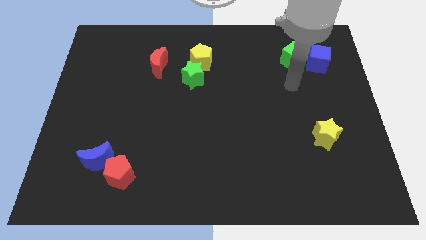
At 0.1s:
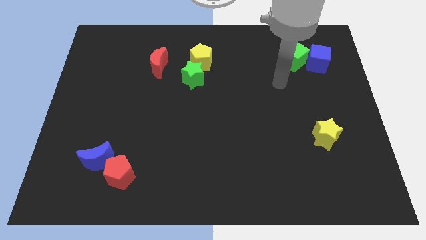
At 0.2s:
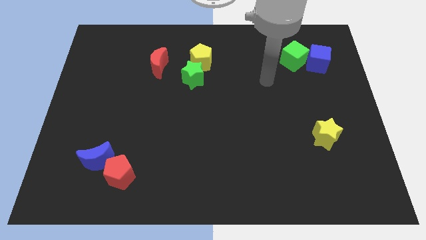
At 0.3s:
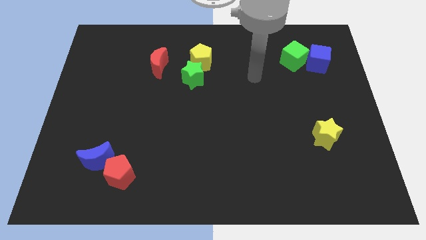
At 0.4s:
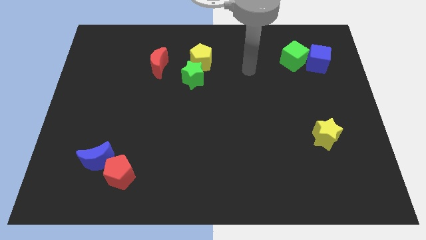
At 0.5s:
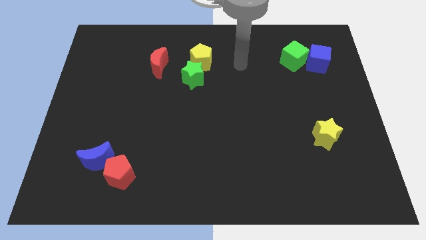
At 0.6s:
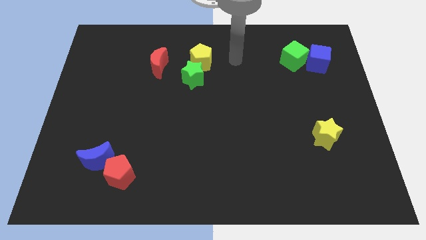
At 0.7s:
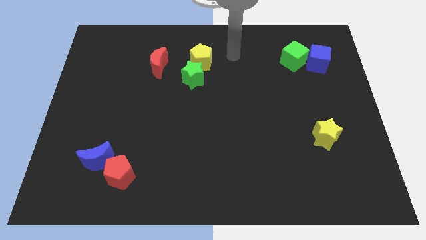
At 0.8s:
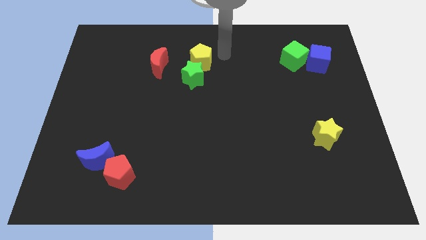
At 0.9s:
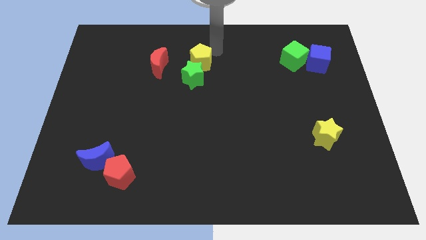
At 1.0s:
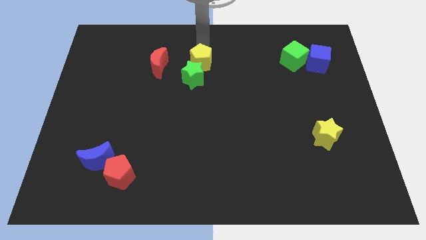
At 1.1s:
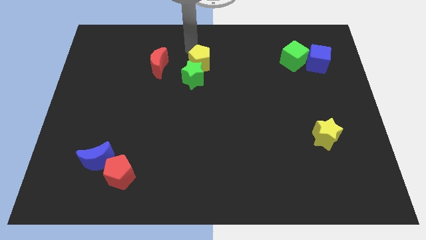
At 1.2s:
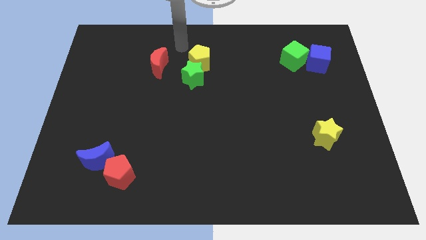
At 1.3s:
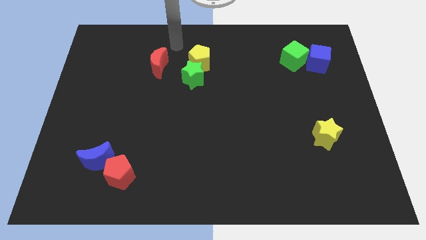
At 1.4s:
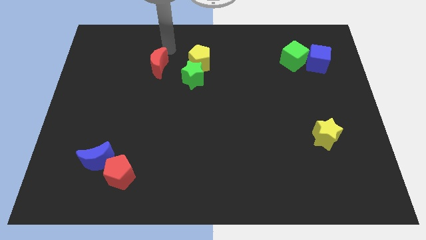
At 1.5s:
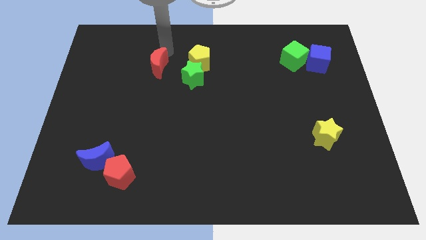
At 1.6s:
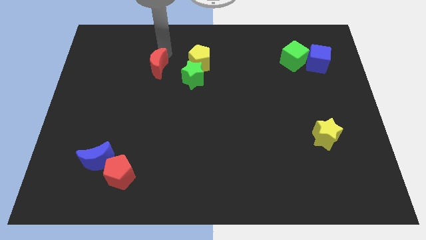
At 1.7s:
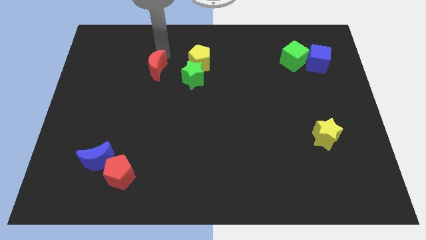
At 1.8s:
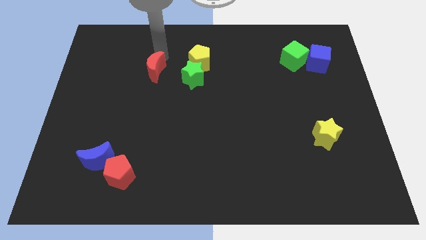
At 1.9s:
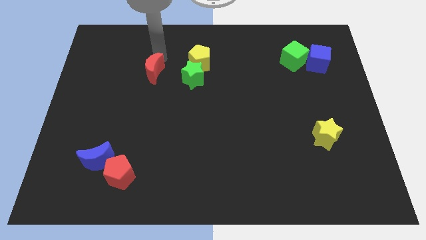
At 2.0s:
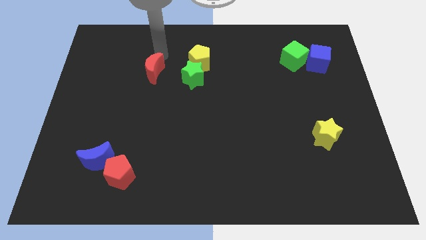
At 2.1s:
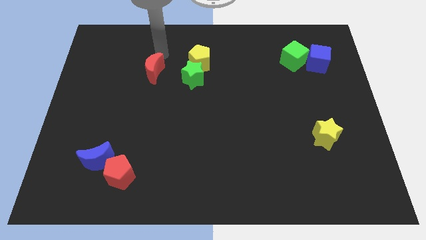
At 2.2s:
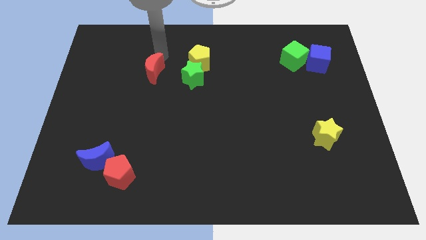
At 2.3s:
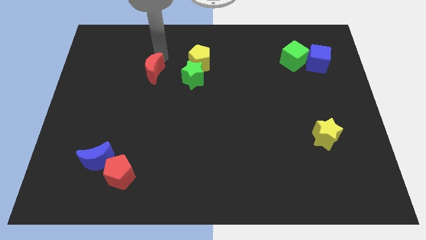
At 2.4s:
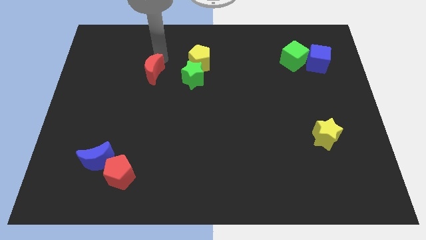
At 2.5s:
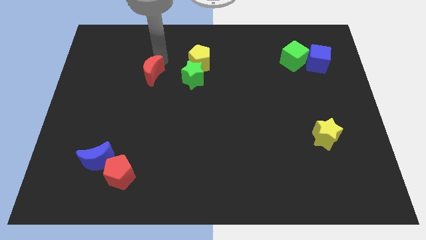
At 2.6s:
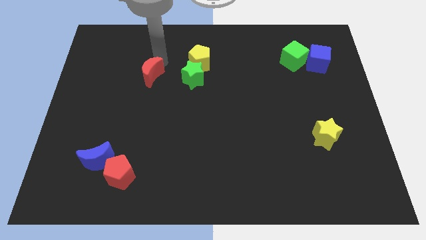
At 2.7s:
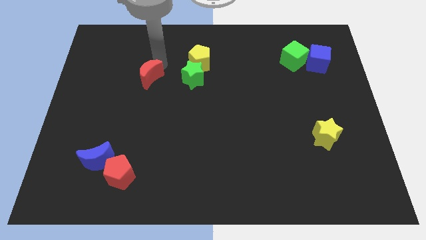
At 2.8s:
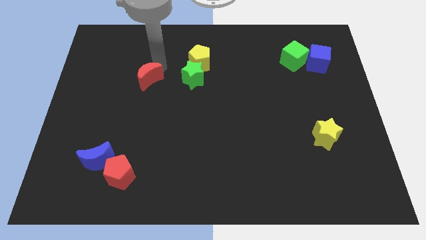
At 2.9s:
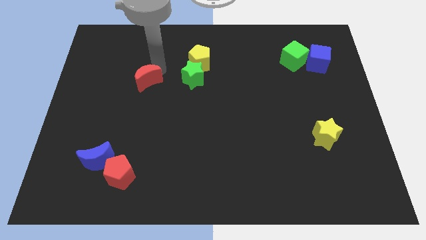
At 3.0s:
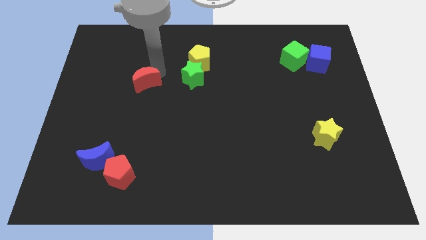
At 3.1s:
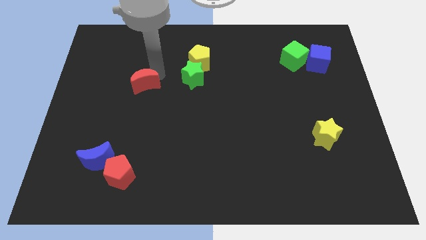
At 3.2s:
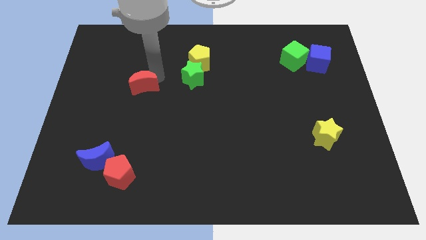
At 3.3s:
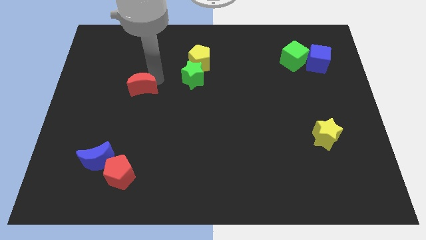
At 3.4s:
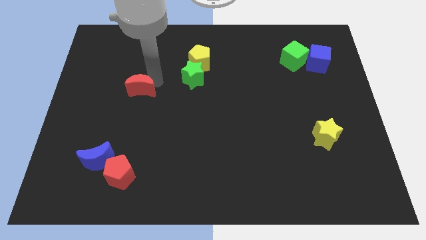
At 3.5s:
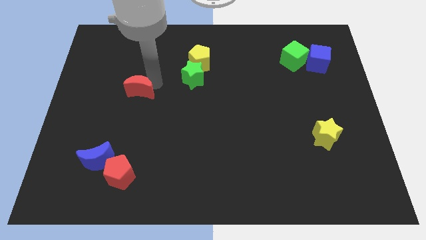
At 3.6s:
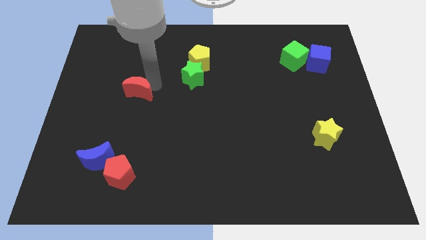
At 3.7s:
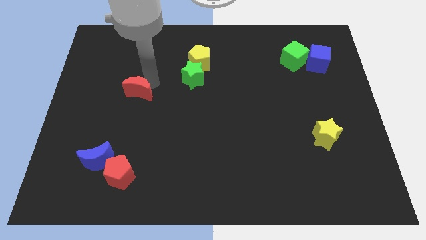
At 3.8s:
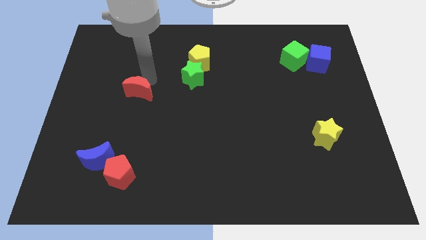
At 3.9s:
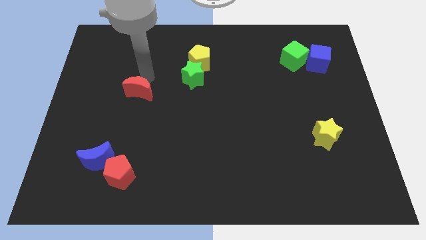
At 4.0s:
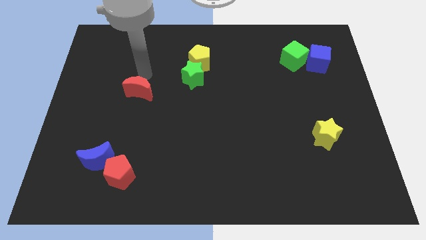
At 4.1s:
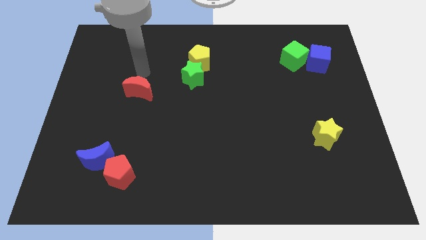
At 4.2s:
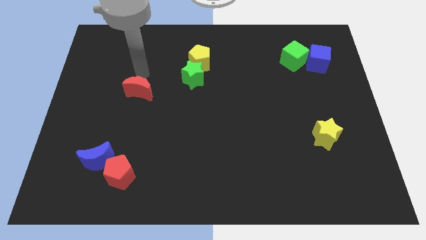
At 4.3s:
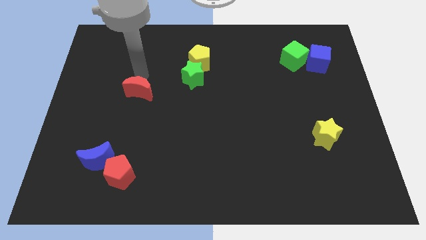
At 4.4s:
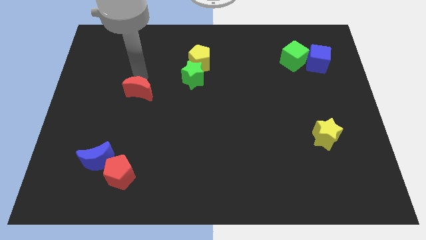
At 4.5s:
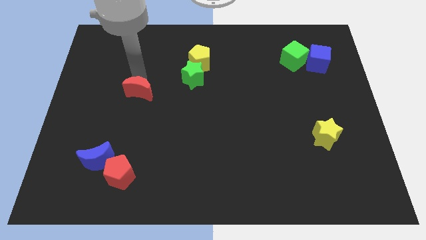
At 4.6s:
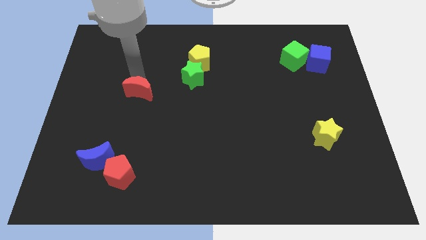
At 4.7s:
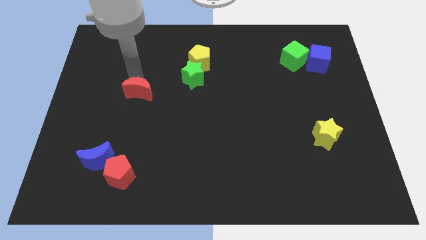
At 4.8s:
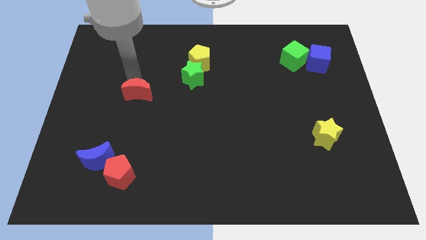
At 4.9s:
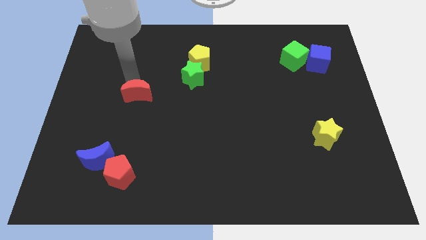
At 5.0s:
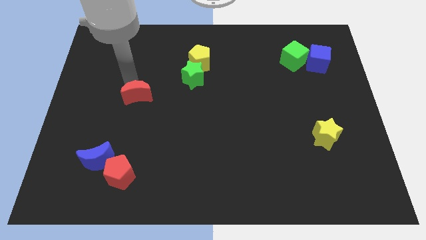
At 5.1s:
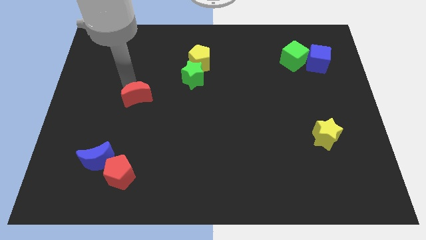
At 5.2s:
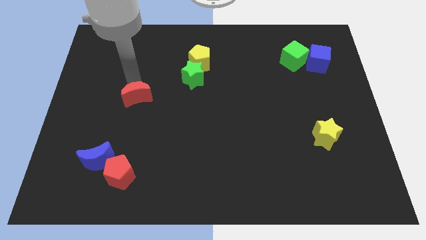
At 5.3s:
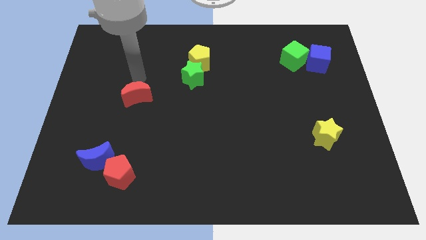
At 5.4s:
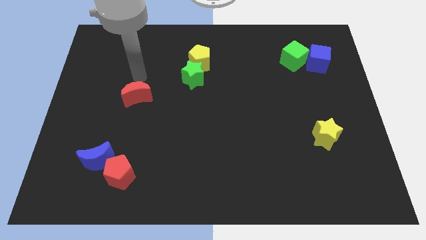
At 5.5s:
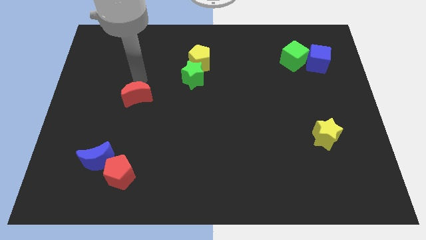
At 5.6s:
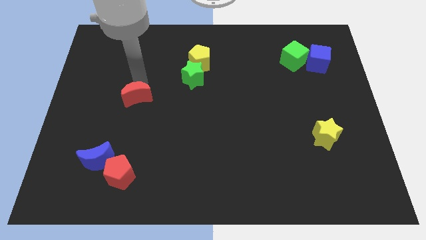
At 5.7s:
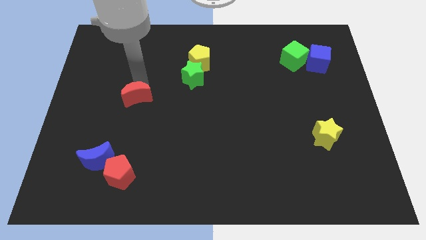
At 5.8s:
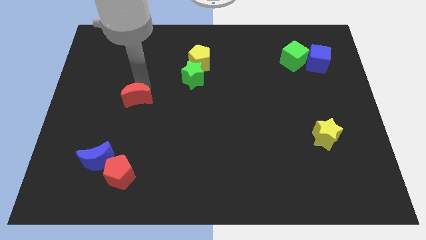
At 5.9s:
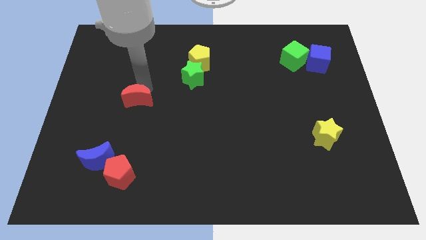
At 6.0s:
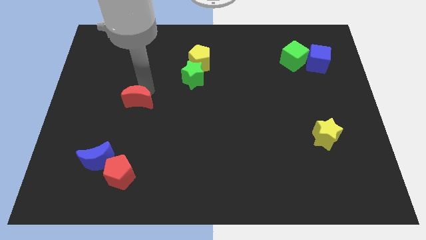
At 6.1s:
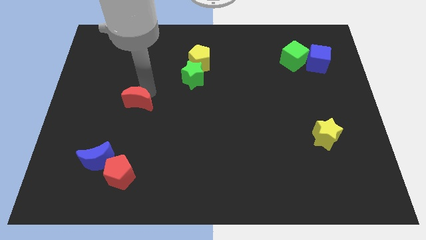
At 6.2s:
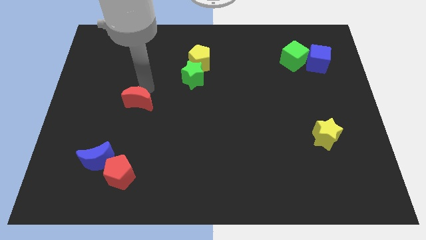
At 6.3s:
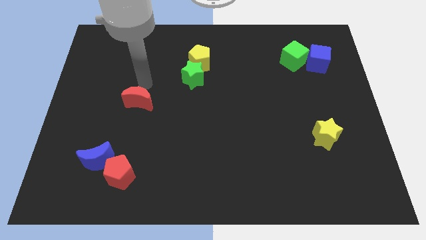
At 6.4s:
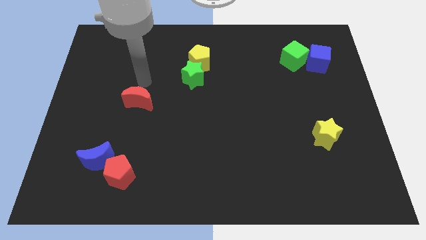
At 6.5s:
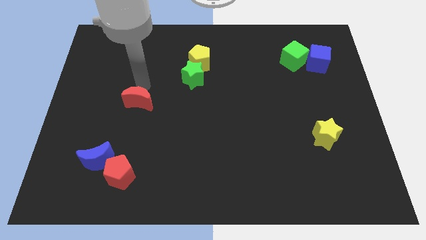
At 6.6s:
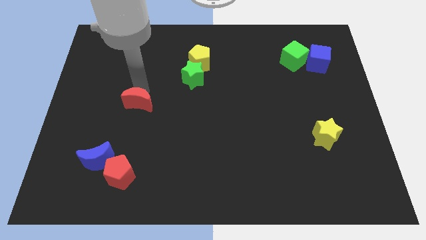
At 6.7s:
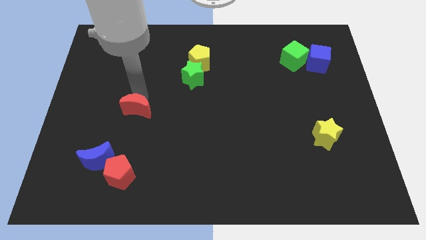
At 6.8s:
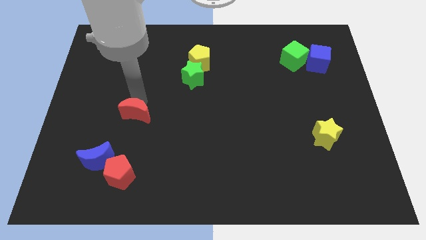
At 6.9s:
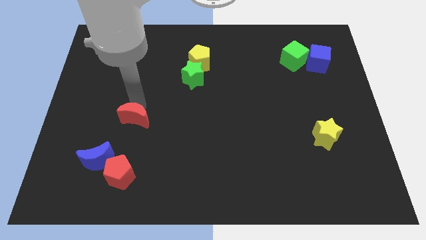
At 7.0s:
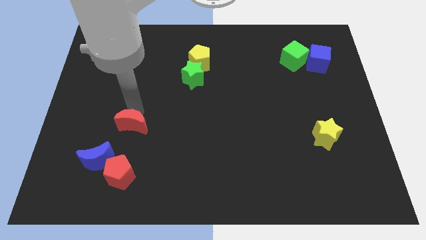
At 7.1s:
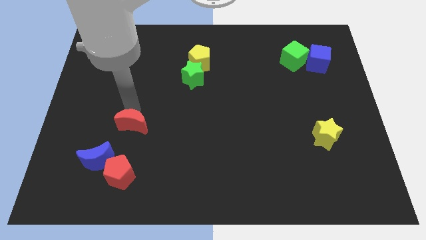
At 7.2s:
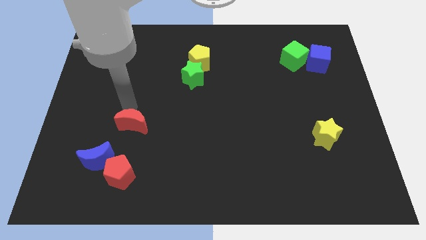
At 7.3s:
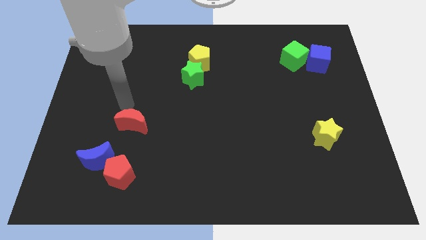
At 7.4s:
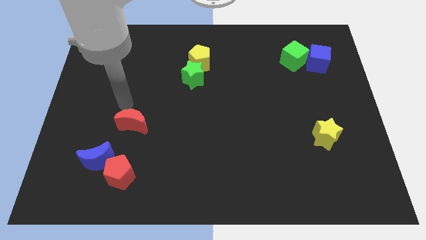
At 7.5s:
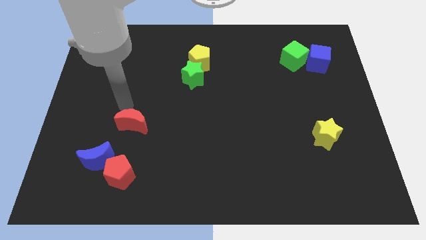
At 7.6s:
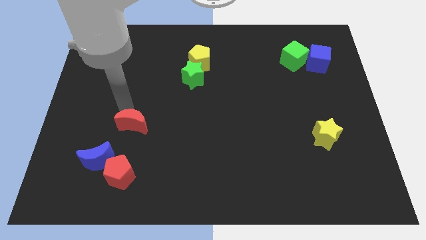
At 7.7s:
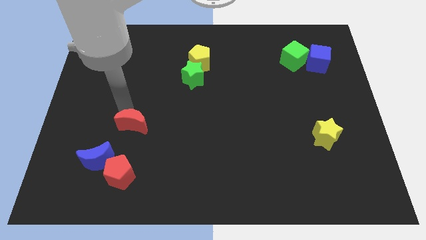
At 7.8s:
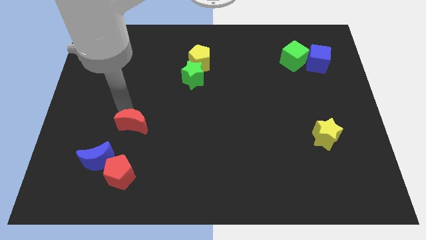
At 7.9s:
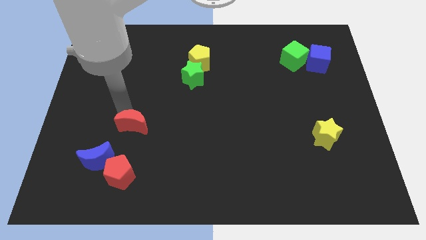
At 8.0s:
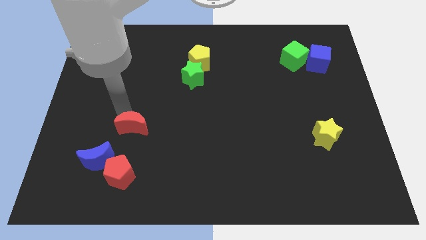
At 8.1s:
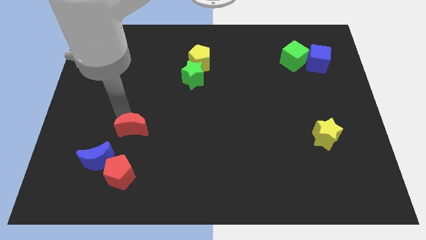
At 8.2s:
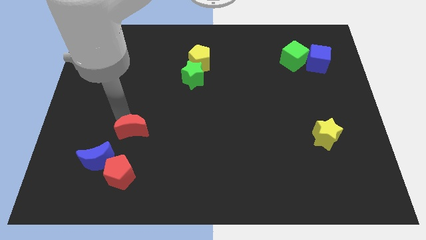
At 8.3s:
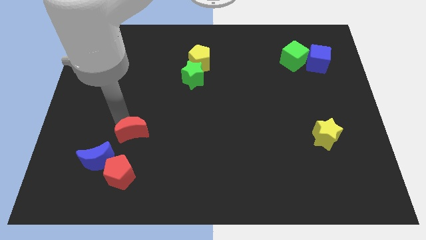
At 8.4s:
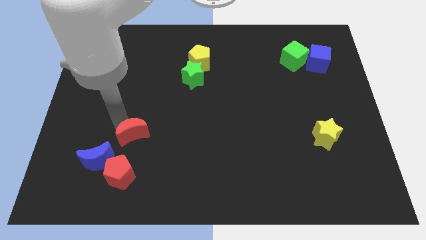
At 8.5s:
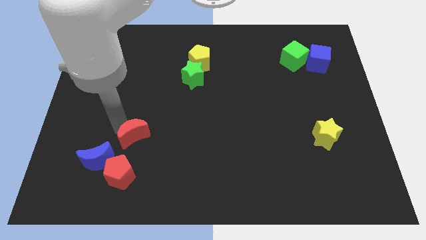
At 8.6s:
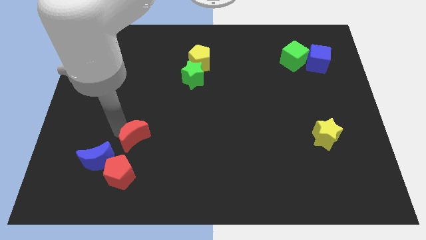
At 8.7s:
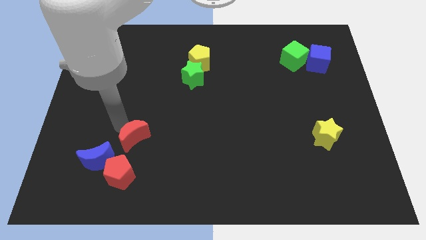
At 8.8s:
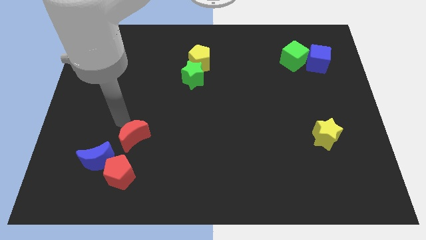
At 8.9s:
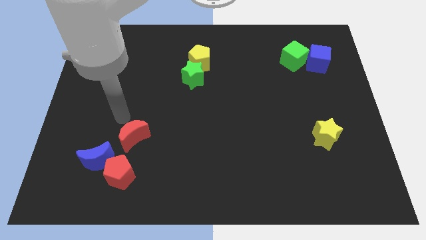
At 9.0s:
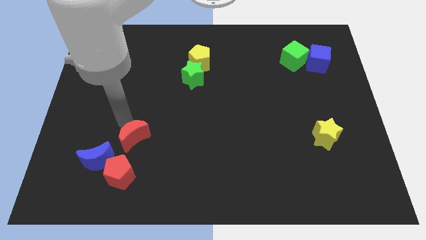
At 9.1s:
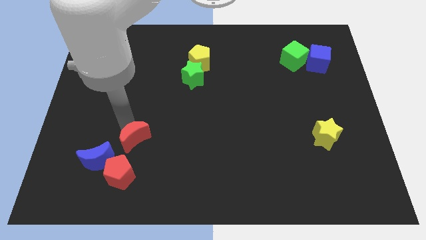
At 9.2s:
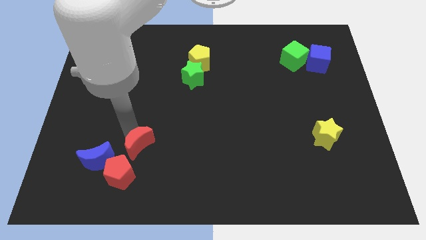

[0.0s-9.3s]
move the red moon to the right side of the blue moon
